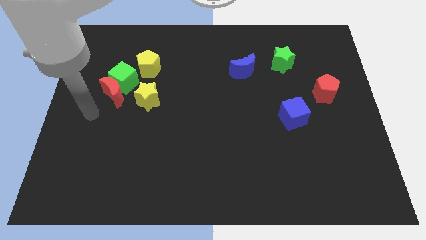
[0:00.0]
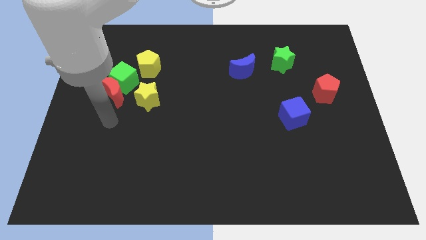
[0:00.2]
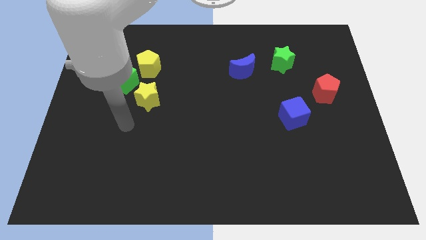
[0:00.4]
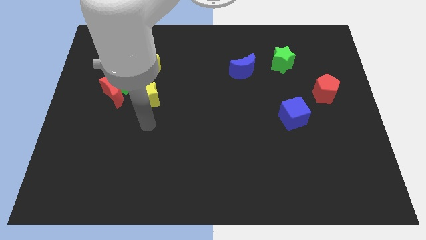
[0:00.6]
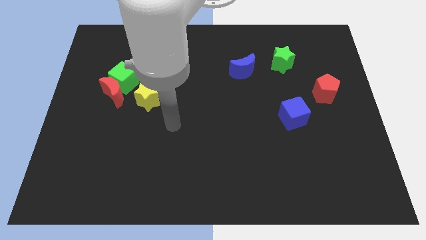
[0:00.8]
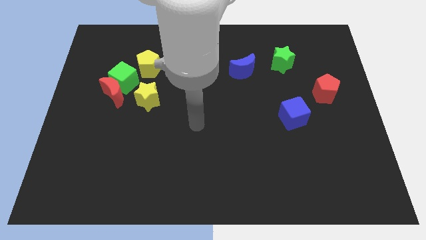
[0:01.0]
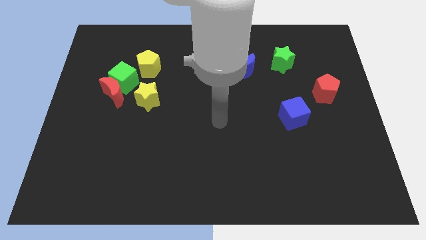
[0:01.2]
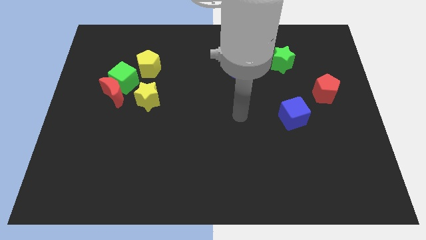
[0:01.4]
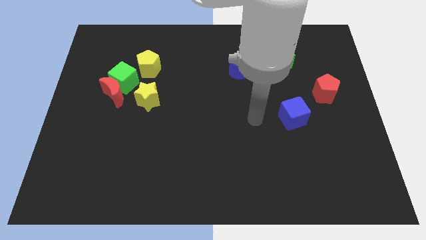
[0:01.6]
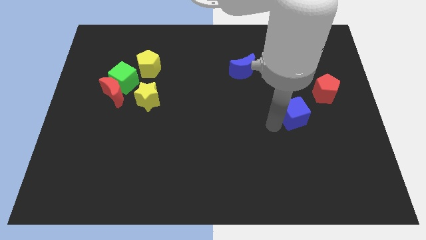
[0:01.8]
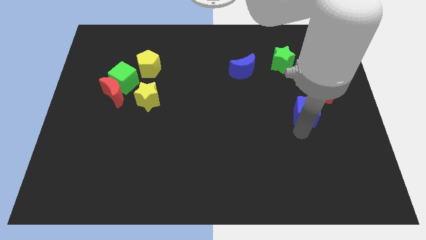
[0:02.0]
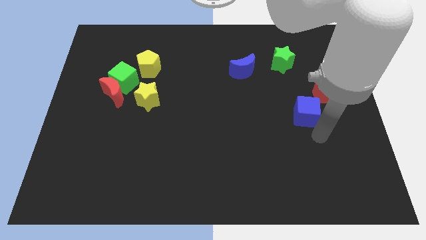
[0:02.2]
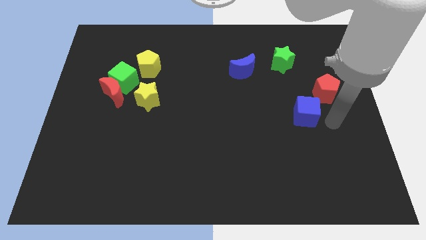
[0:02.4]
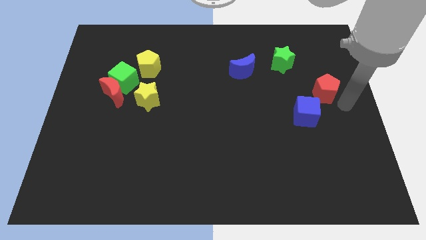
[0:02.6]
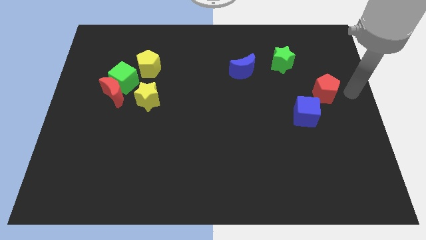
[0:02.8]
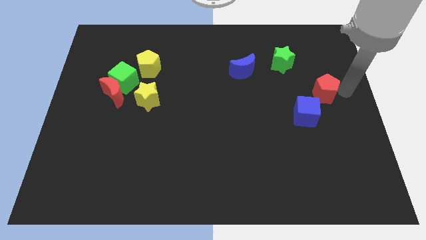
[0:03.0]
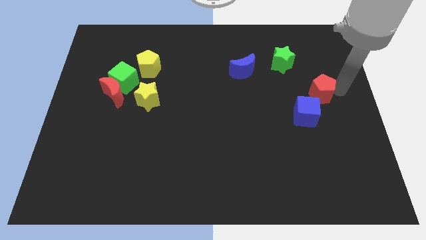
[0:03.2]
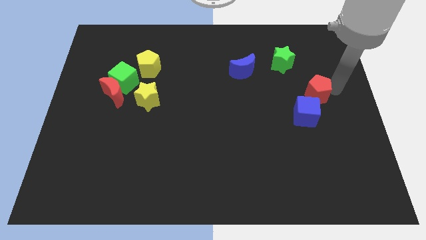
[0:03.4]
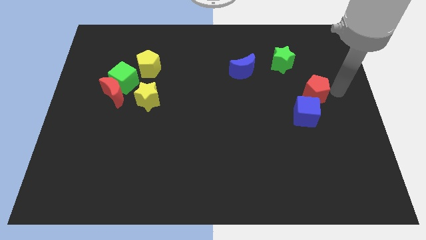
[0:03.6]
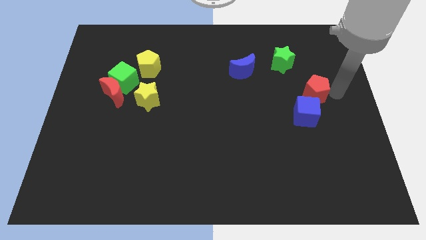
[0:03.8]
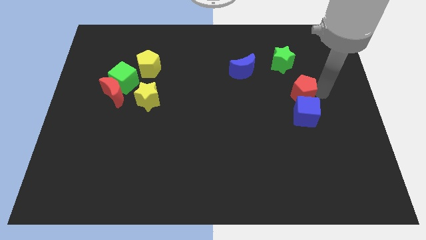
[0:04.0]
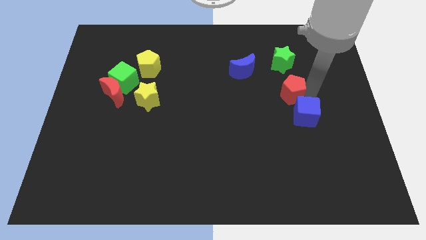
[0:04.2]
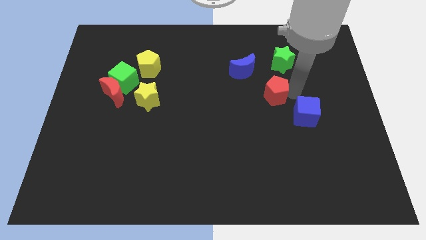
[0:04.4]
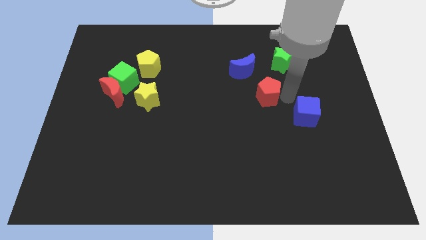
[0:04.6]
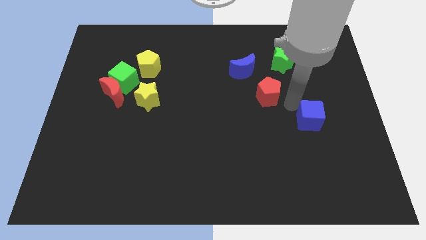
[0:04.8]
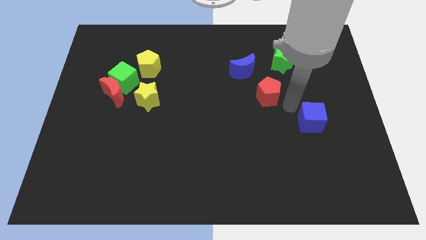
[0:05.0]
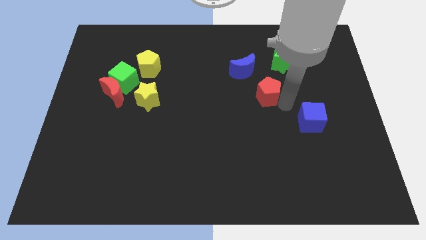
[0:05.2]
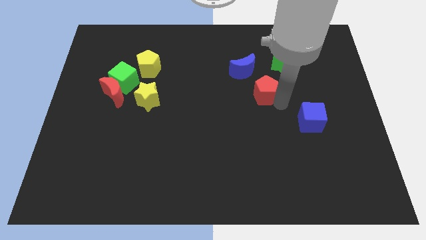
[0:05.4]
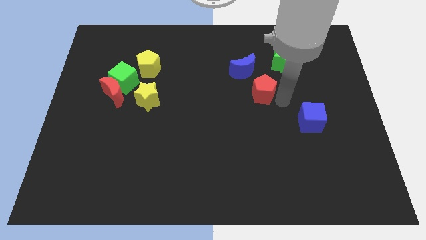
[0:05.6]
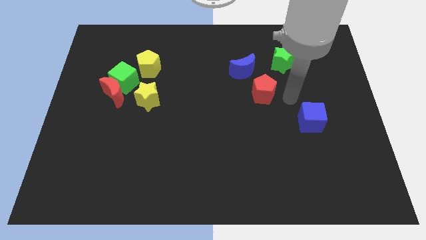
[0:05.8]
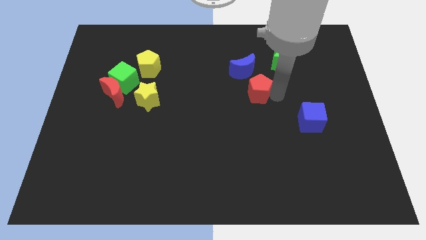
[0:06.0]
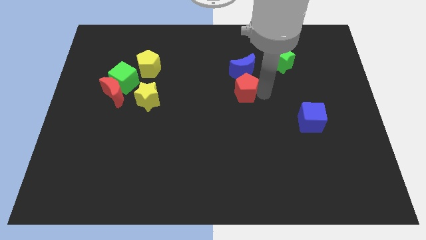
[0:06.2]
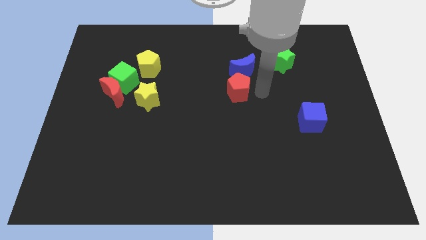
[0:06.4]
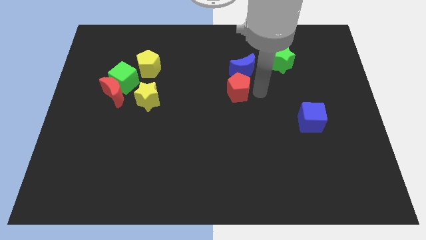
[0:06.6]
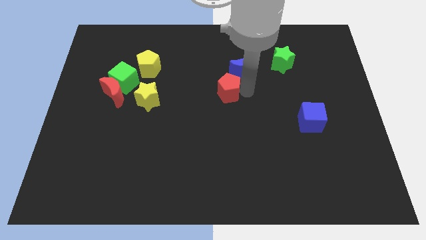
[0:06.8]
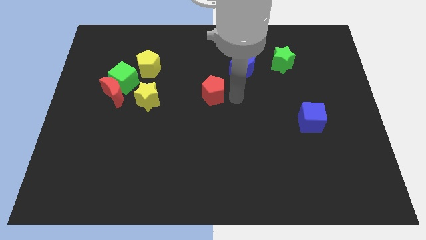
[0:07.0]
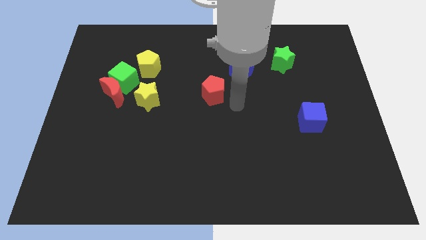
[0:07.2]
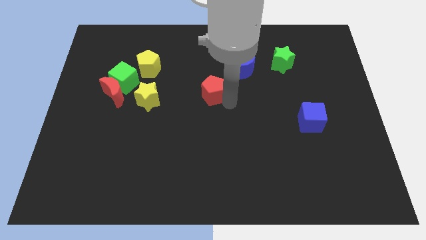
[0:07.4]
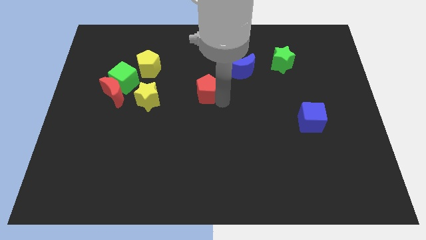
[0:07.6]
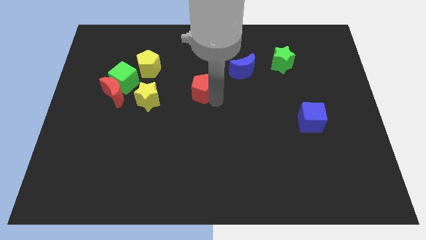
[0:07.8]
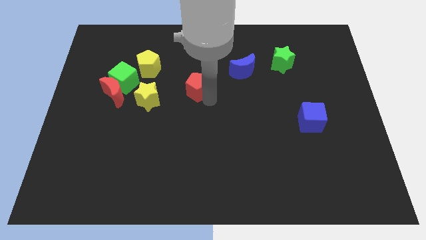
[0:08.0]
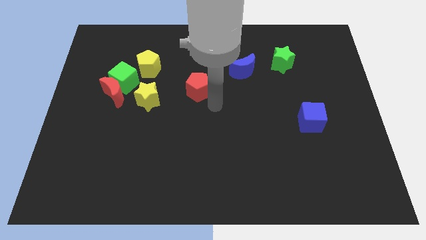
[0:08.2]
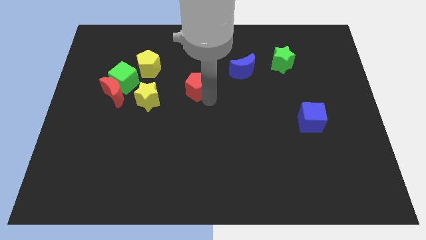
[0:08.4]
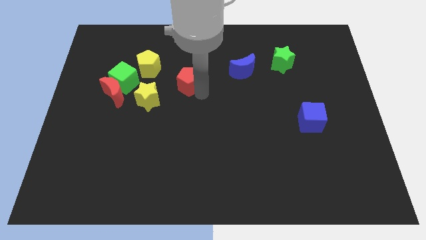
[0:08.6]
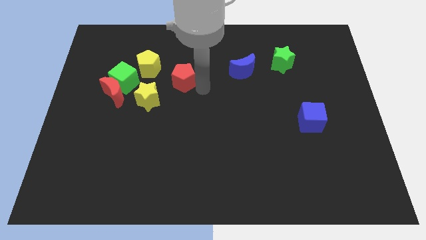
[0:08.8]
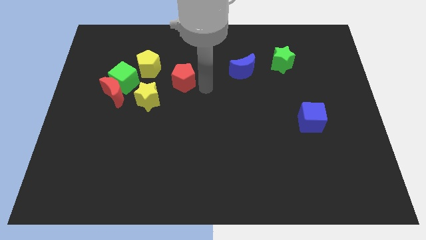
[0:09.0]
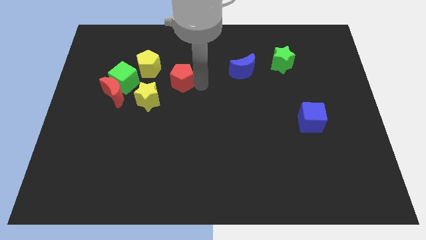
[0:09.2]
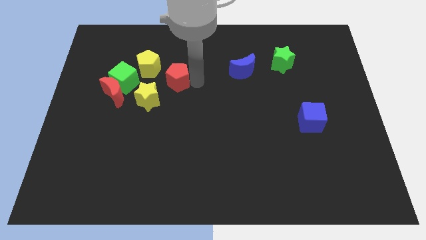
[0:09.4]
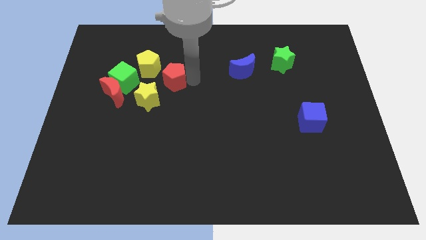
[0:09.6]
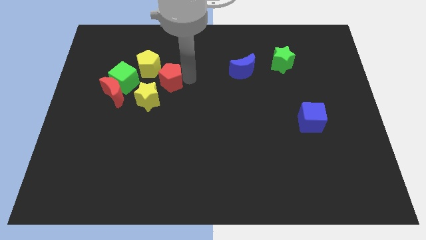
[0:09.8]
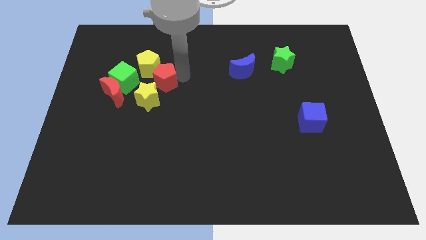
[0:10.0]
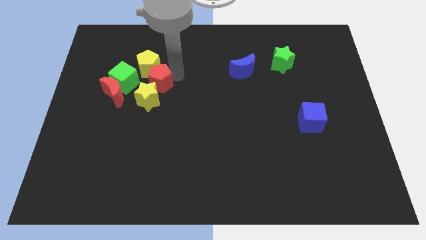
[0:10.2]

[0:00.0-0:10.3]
move the red pentagon towards the yellow pentagon

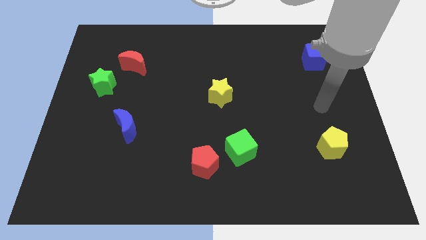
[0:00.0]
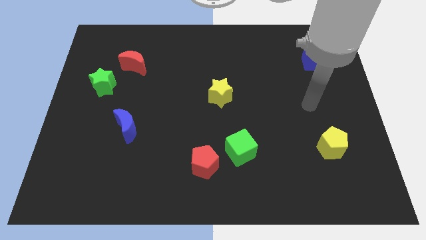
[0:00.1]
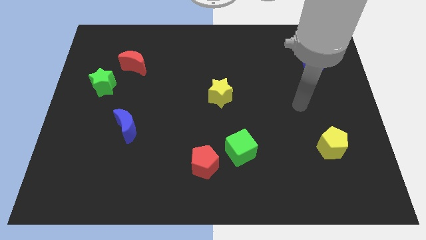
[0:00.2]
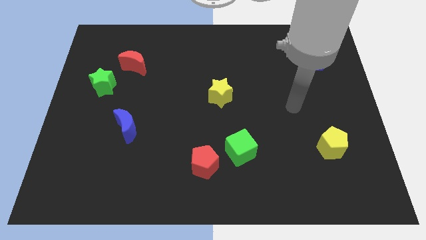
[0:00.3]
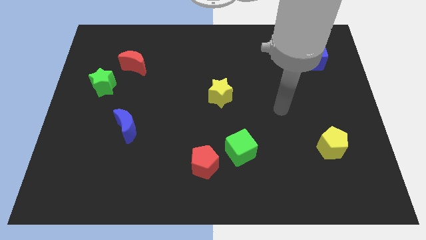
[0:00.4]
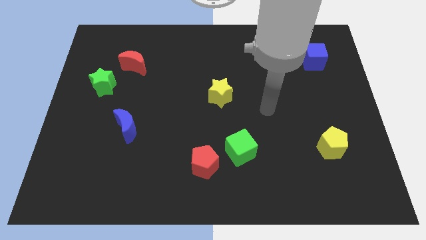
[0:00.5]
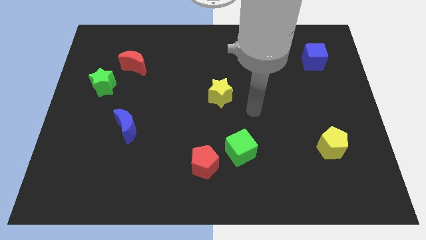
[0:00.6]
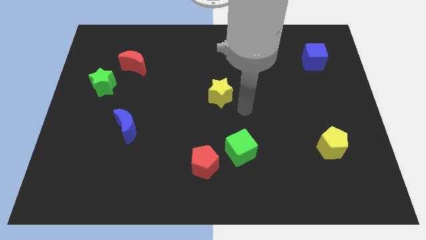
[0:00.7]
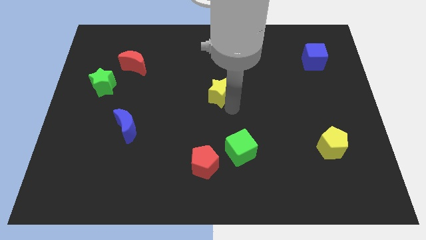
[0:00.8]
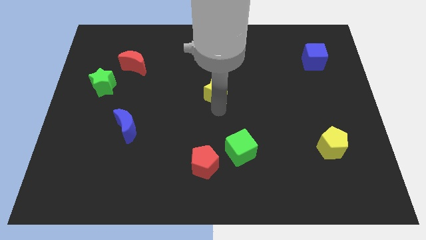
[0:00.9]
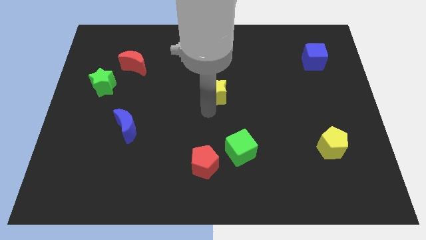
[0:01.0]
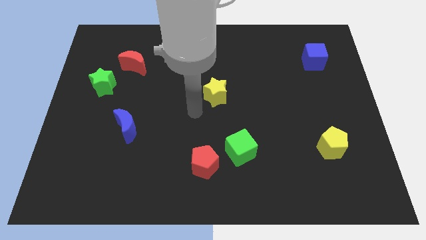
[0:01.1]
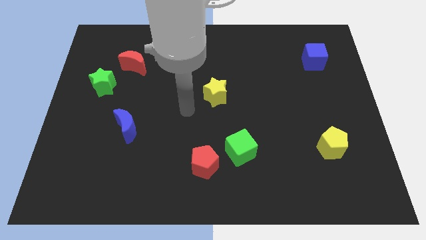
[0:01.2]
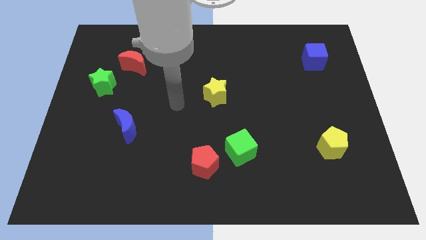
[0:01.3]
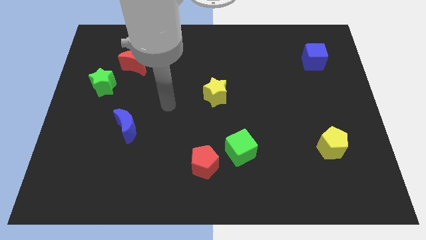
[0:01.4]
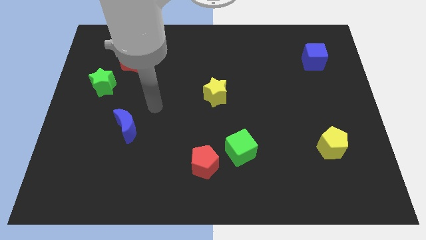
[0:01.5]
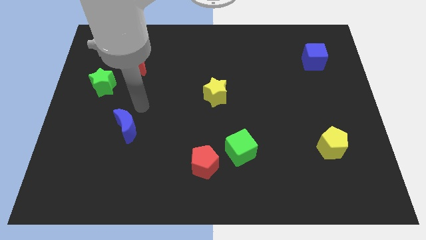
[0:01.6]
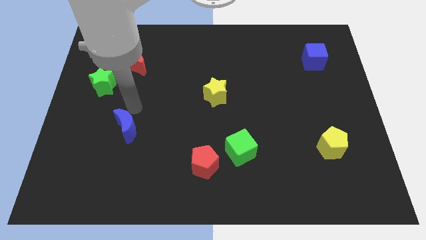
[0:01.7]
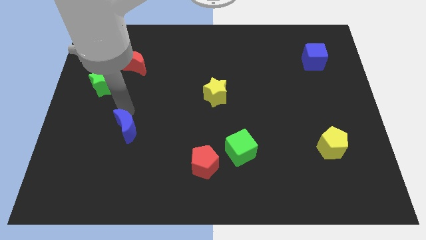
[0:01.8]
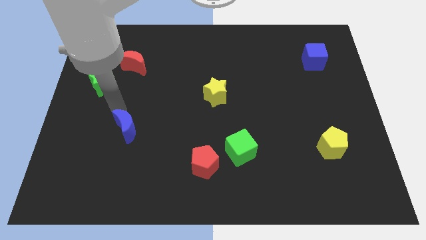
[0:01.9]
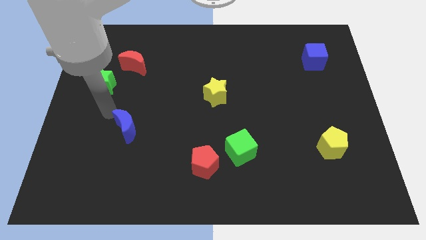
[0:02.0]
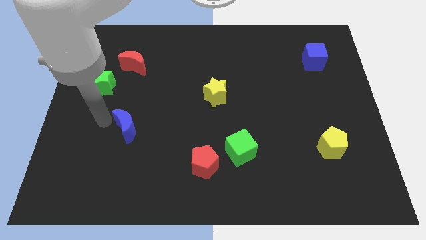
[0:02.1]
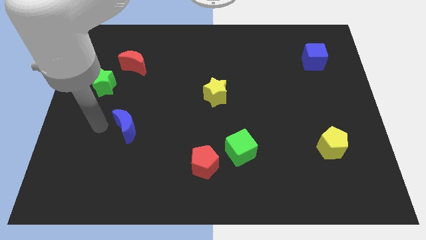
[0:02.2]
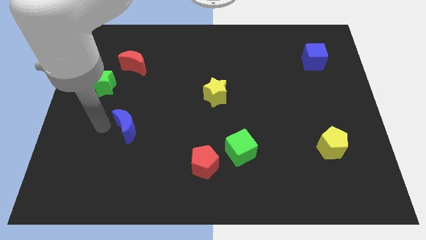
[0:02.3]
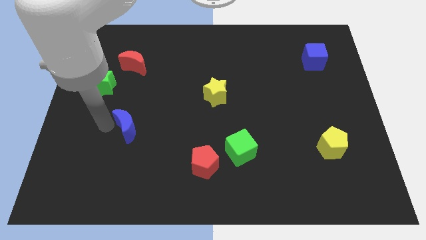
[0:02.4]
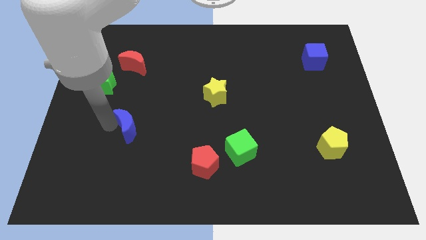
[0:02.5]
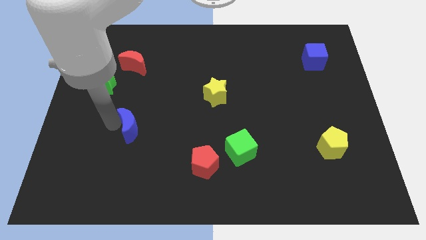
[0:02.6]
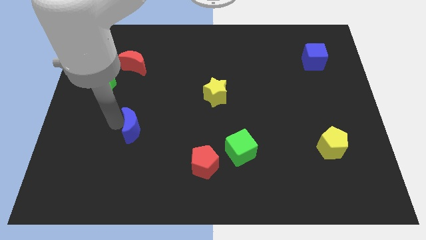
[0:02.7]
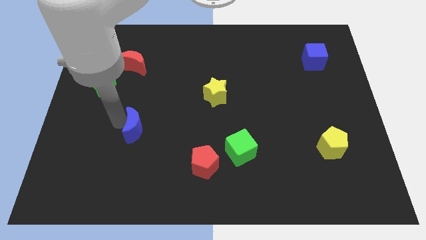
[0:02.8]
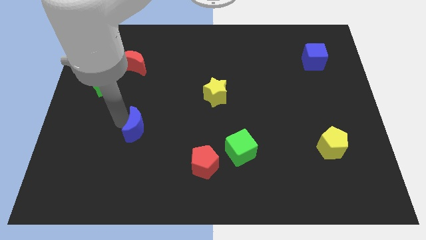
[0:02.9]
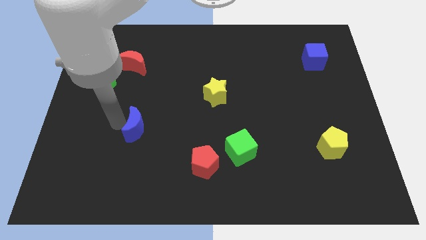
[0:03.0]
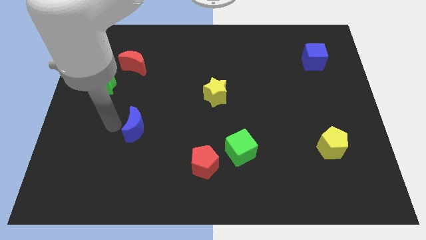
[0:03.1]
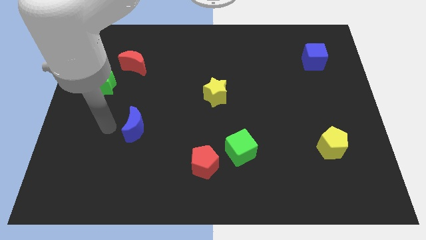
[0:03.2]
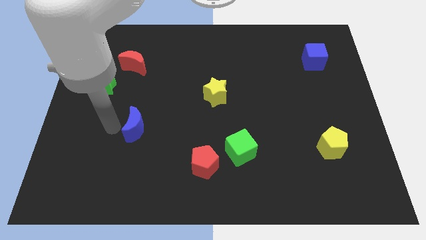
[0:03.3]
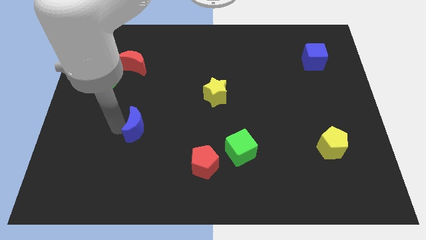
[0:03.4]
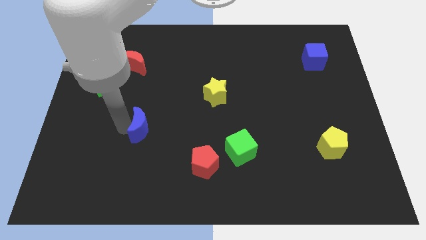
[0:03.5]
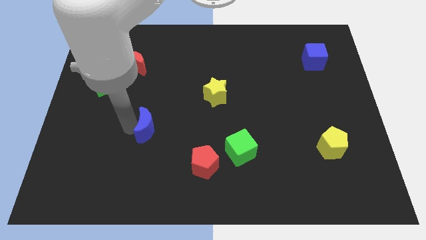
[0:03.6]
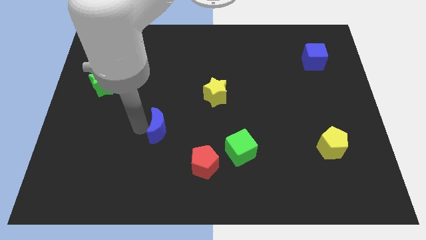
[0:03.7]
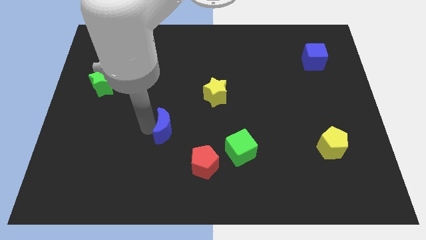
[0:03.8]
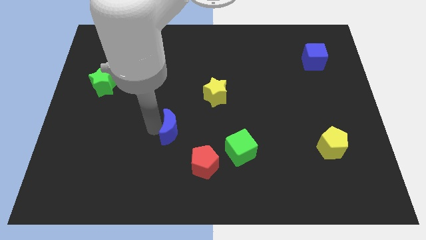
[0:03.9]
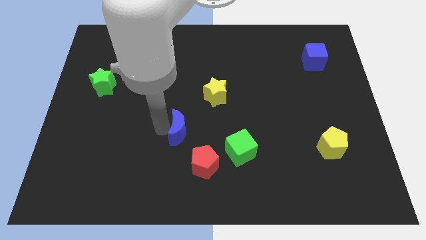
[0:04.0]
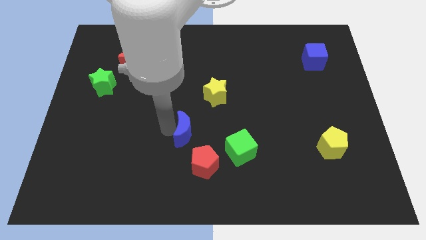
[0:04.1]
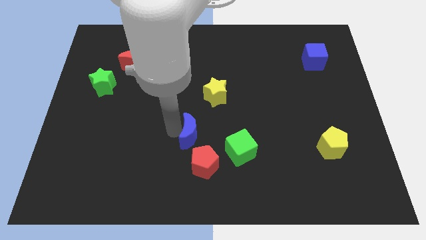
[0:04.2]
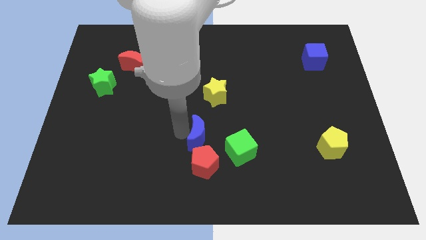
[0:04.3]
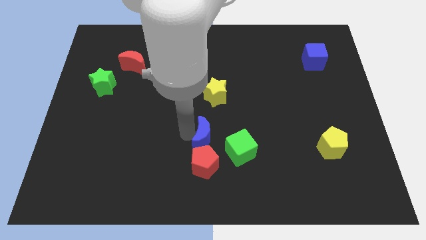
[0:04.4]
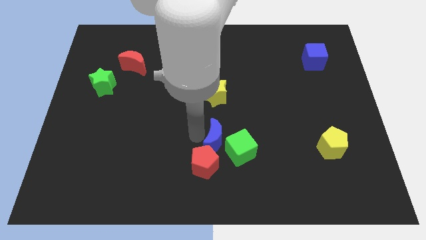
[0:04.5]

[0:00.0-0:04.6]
put the blue moon to the green cube
